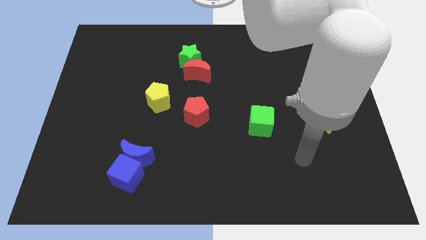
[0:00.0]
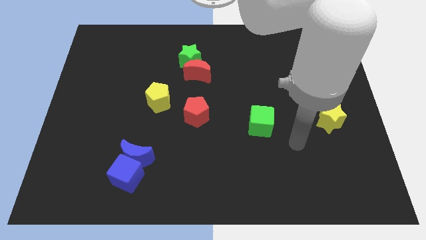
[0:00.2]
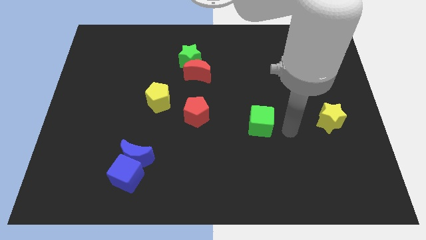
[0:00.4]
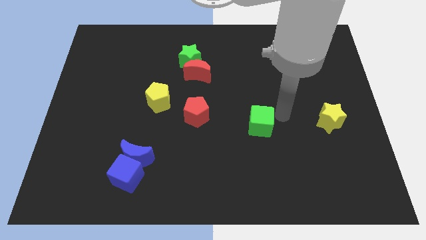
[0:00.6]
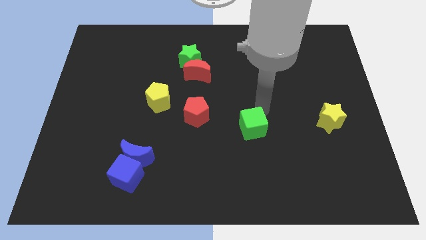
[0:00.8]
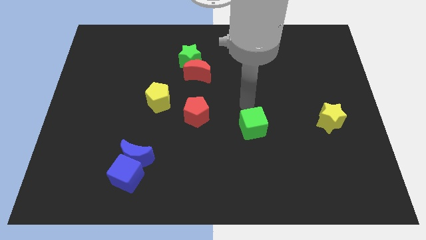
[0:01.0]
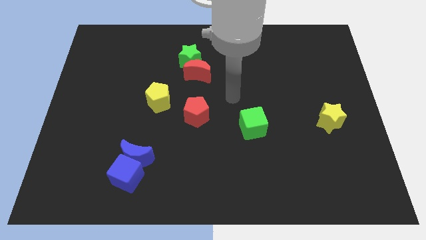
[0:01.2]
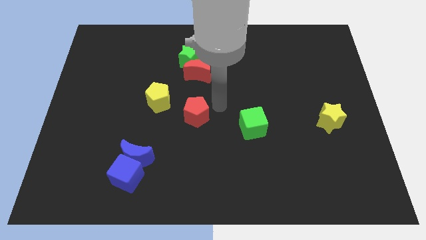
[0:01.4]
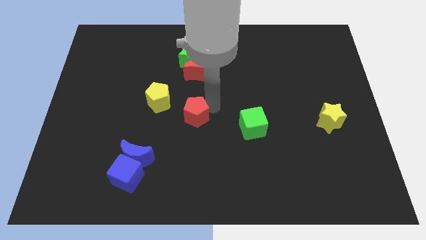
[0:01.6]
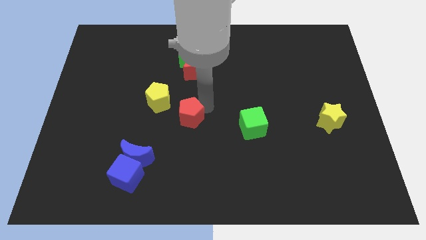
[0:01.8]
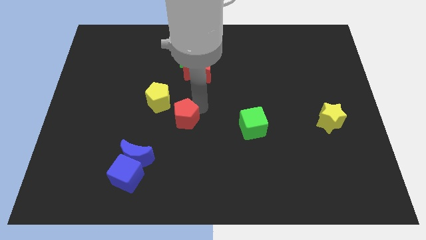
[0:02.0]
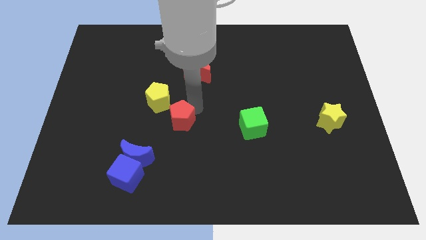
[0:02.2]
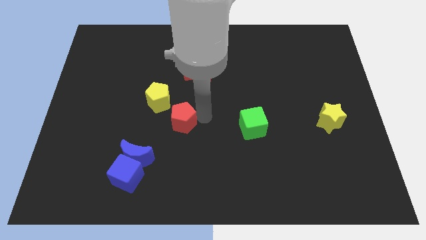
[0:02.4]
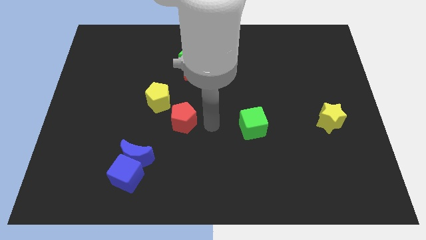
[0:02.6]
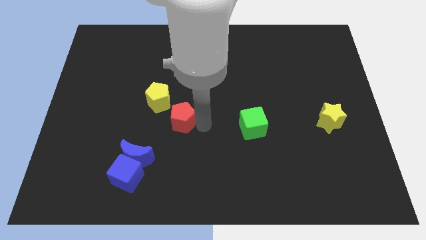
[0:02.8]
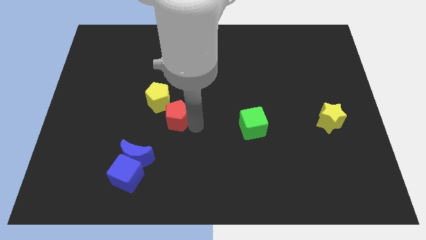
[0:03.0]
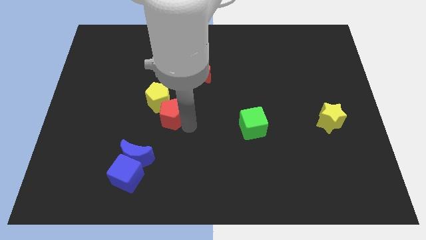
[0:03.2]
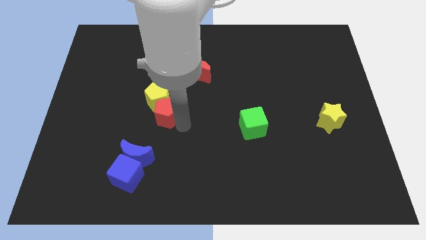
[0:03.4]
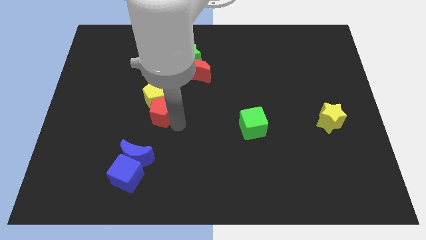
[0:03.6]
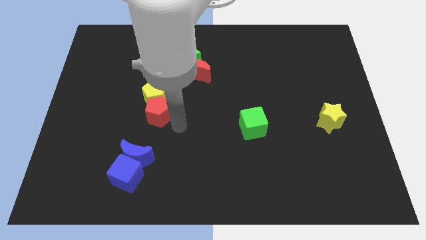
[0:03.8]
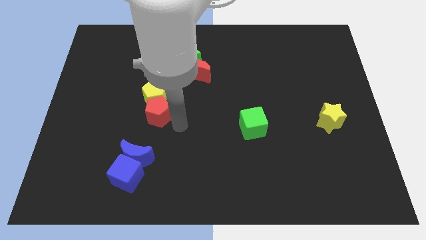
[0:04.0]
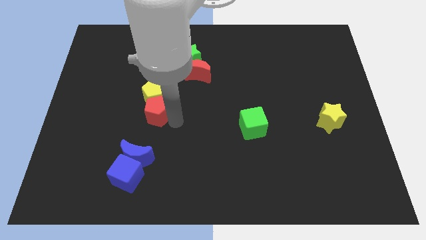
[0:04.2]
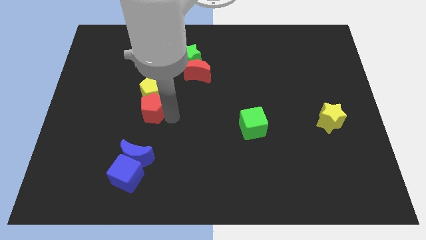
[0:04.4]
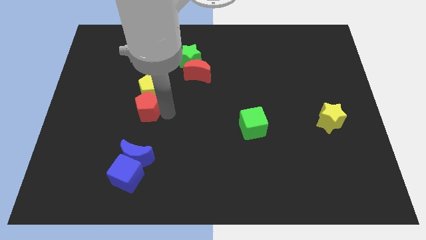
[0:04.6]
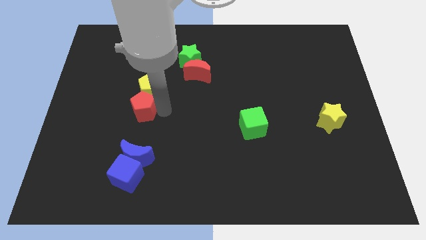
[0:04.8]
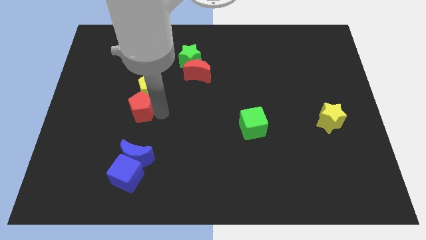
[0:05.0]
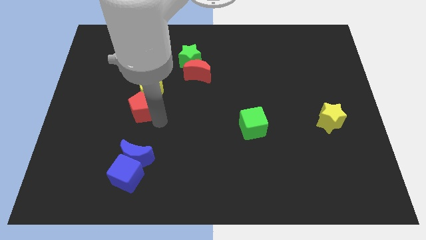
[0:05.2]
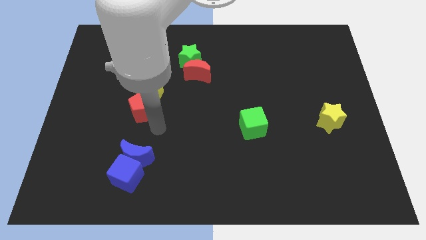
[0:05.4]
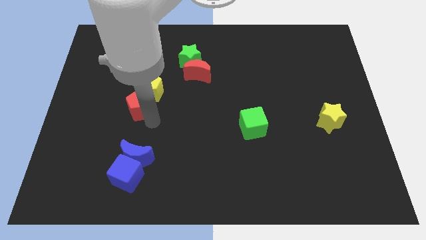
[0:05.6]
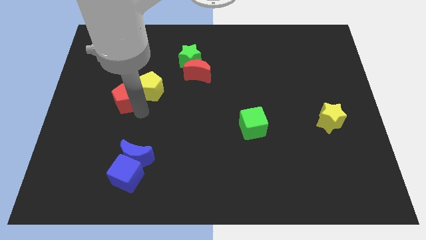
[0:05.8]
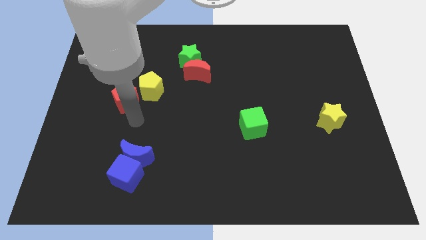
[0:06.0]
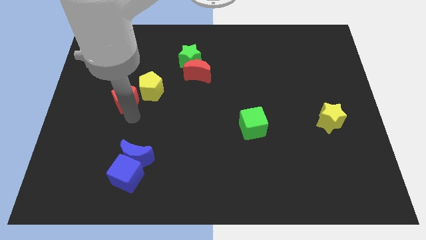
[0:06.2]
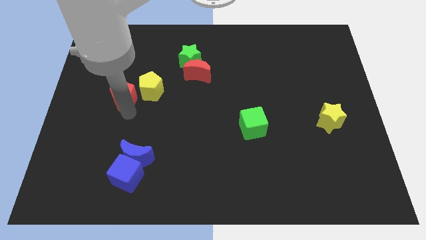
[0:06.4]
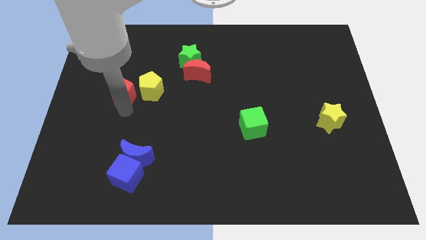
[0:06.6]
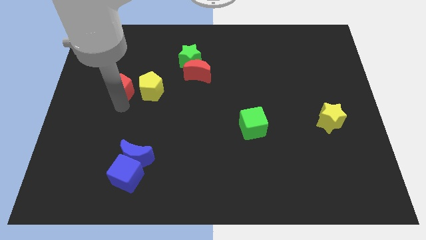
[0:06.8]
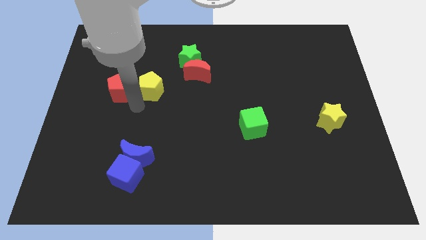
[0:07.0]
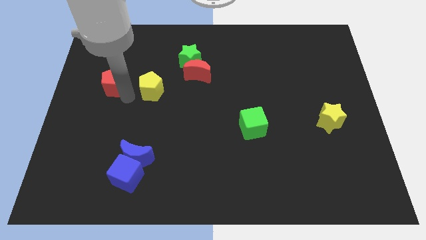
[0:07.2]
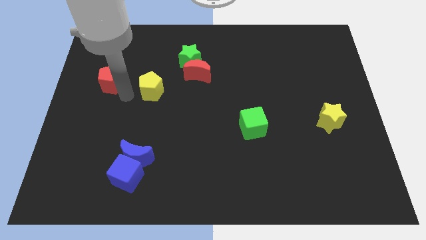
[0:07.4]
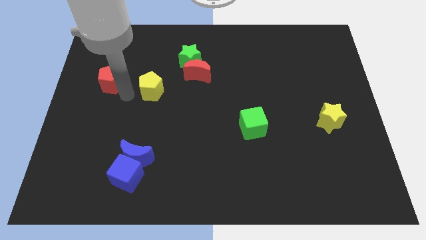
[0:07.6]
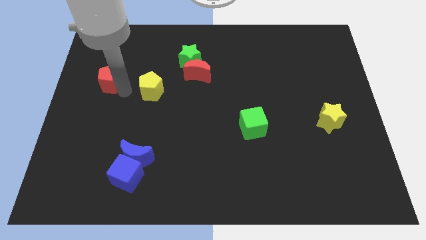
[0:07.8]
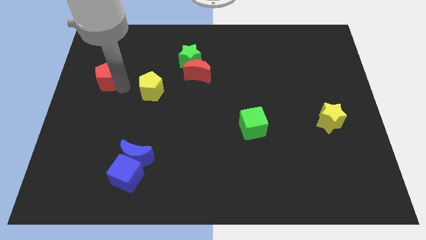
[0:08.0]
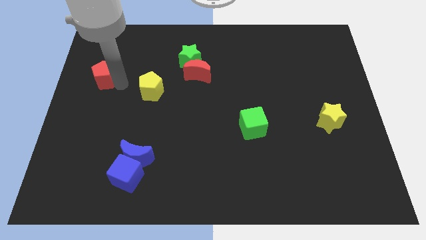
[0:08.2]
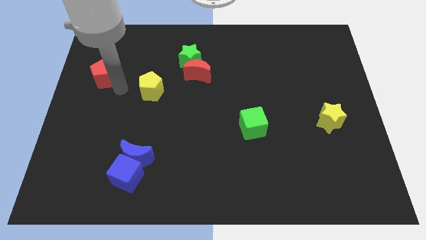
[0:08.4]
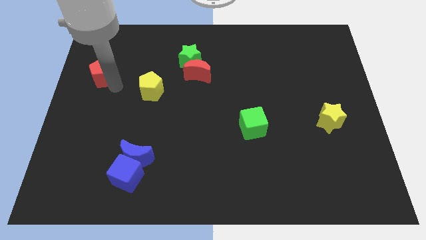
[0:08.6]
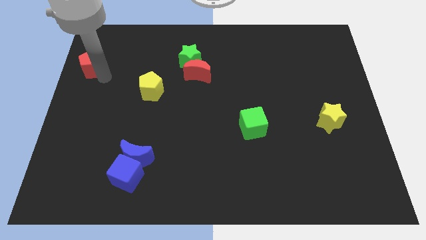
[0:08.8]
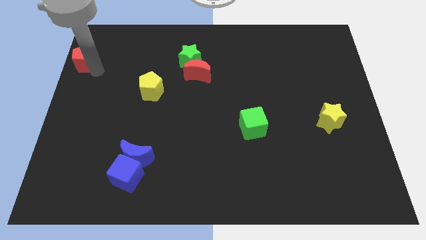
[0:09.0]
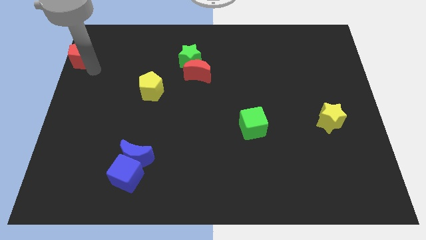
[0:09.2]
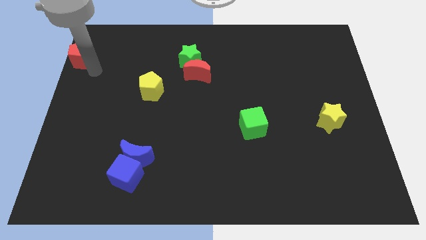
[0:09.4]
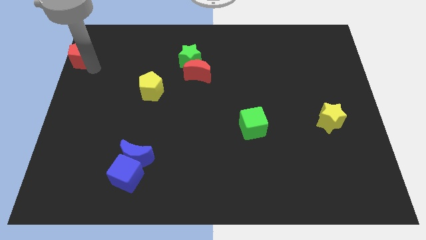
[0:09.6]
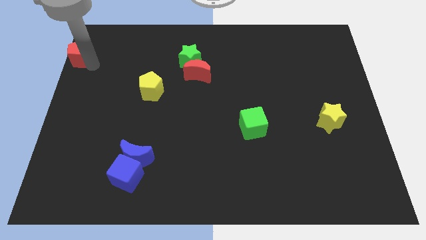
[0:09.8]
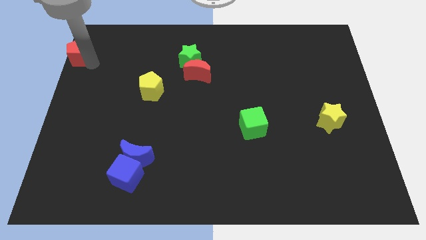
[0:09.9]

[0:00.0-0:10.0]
put the red pentagon to the top left corner

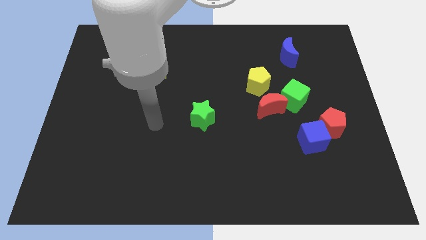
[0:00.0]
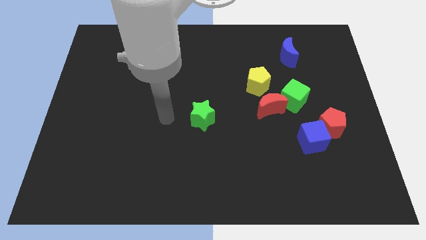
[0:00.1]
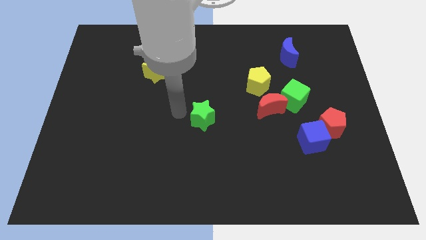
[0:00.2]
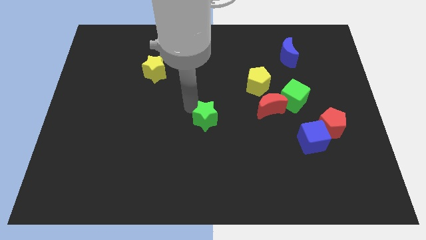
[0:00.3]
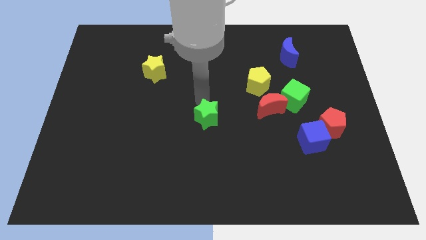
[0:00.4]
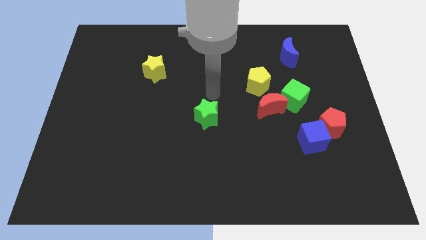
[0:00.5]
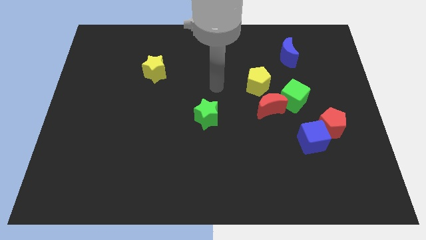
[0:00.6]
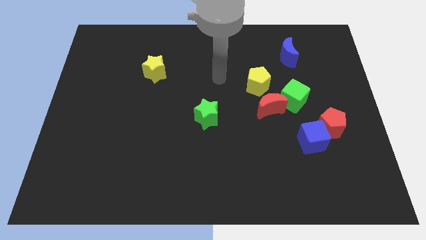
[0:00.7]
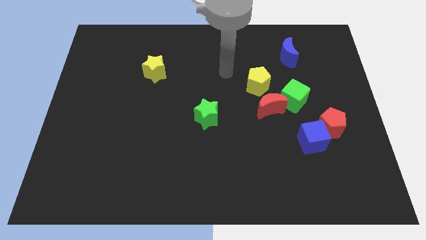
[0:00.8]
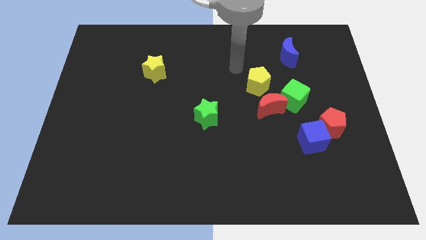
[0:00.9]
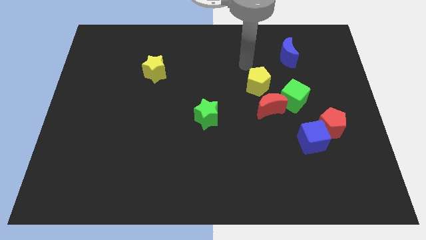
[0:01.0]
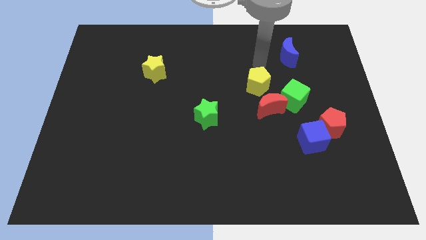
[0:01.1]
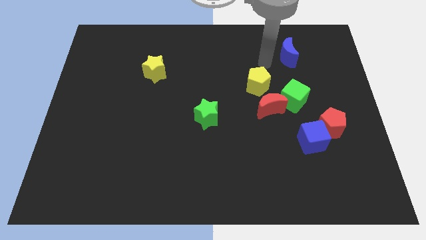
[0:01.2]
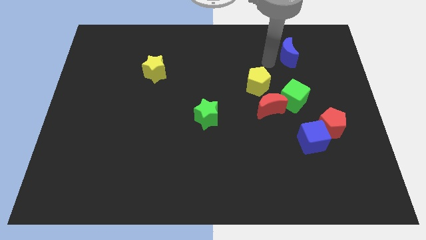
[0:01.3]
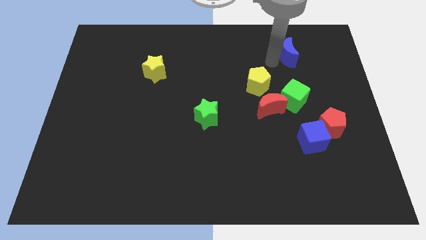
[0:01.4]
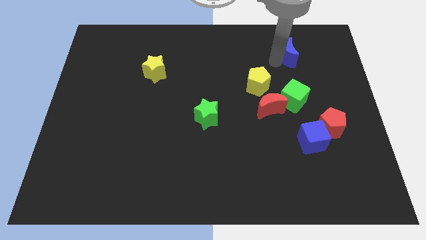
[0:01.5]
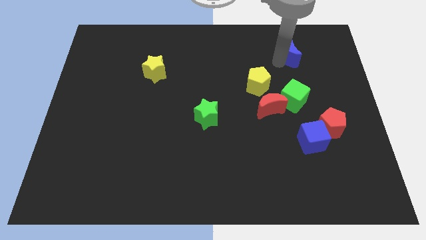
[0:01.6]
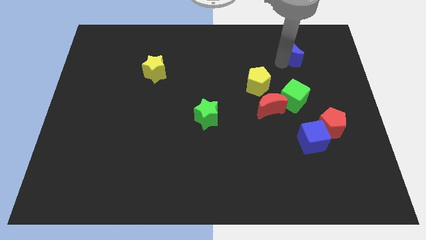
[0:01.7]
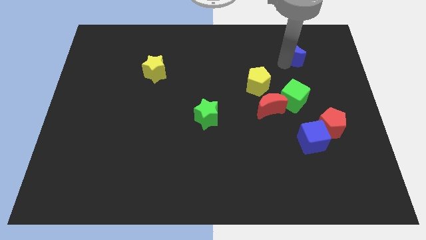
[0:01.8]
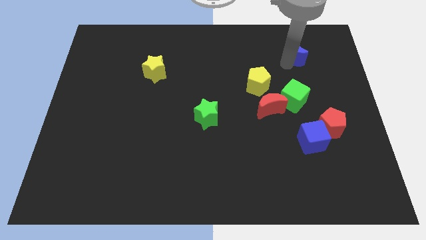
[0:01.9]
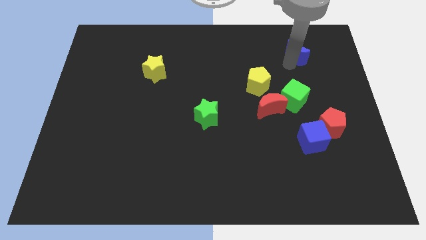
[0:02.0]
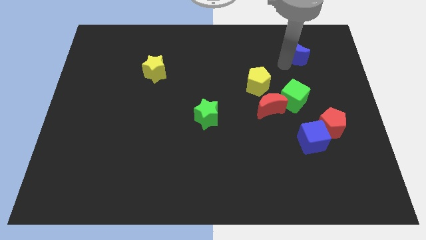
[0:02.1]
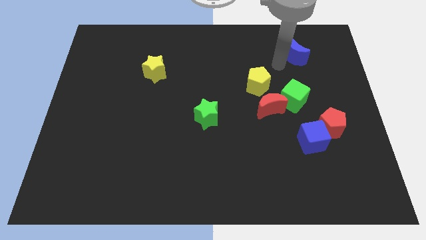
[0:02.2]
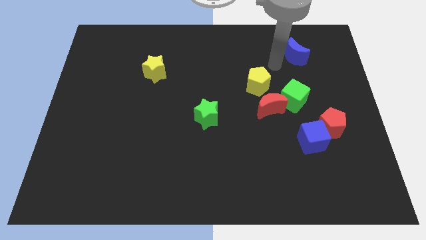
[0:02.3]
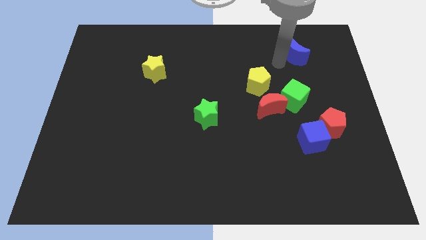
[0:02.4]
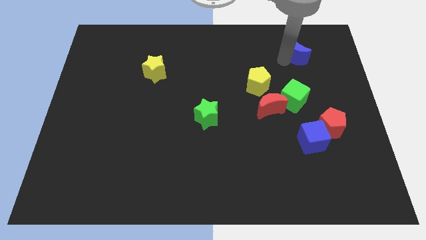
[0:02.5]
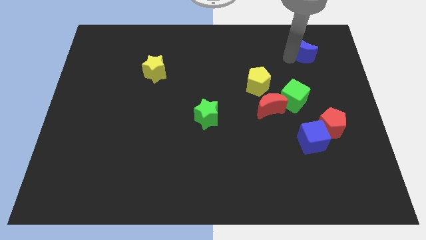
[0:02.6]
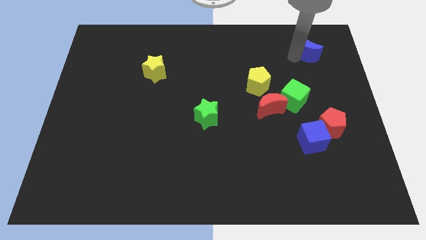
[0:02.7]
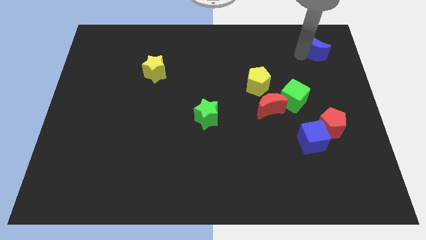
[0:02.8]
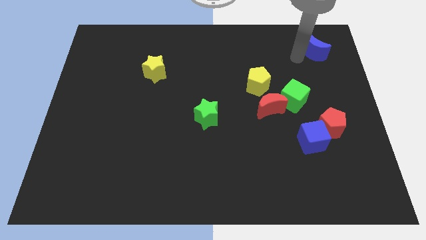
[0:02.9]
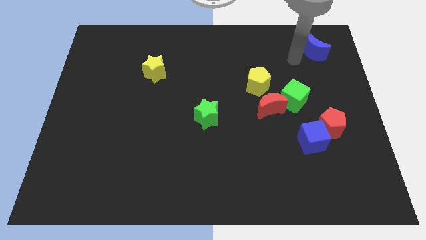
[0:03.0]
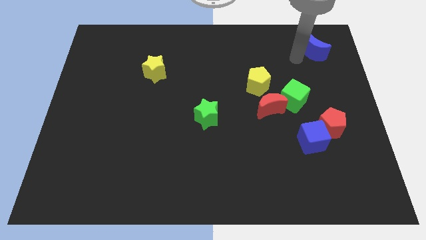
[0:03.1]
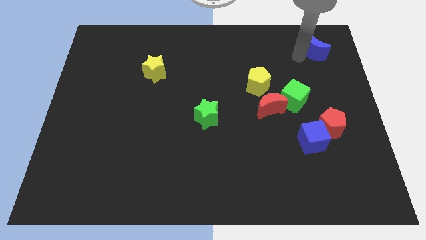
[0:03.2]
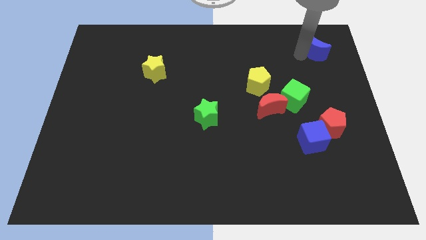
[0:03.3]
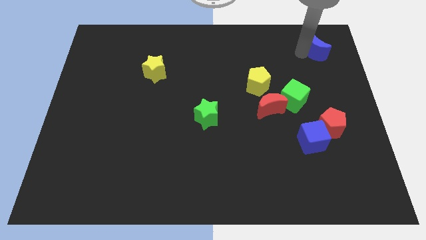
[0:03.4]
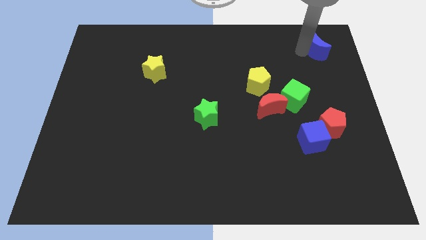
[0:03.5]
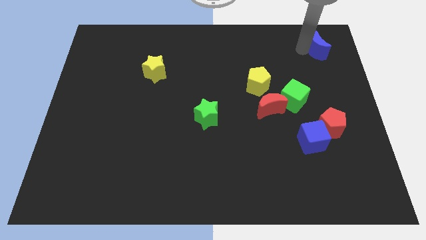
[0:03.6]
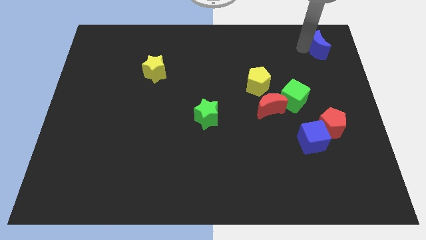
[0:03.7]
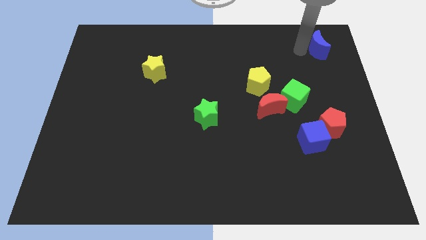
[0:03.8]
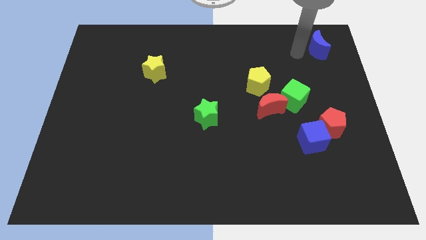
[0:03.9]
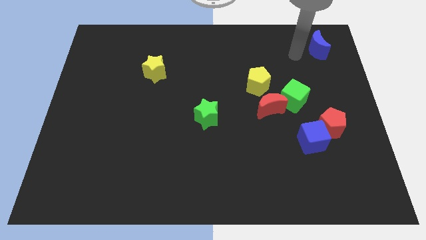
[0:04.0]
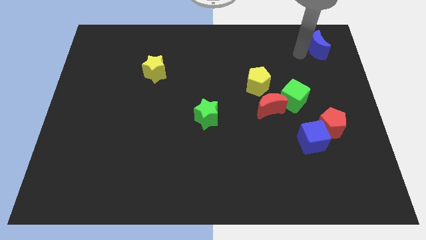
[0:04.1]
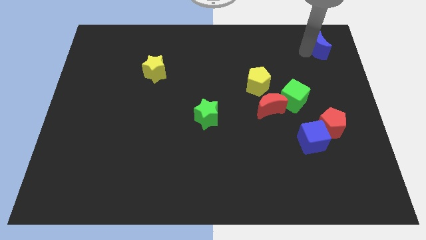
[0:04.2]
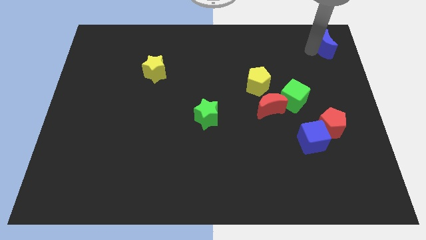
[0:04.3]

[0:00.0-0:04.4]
push the blue moon to the upper right corner
